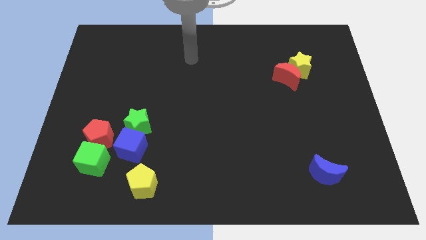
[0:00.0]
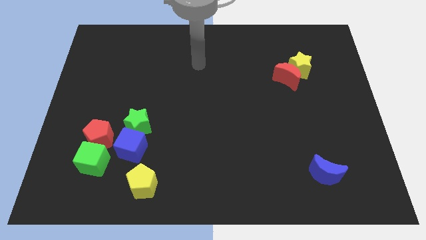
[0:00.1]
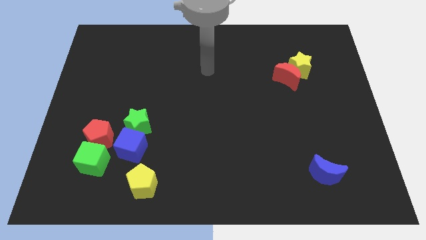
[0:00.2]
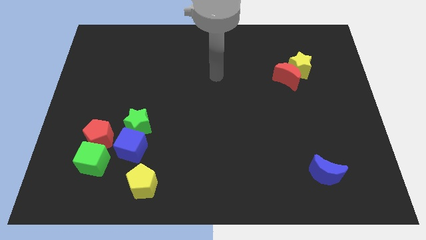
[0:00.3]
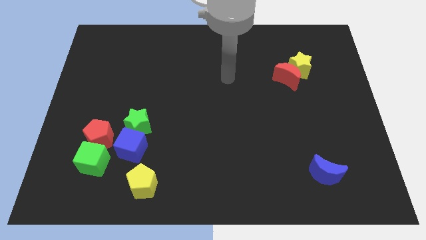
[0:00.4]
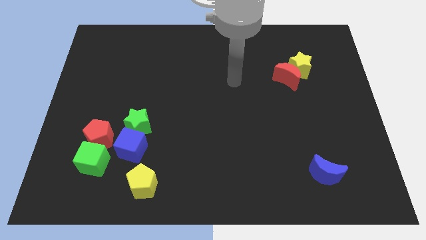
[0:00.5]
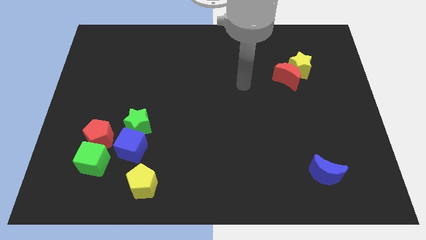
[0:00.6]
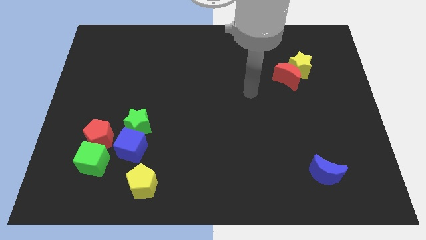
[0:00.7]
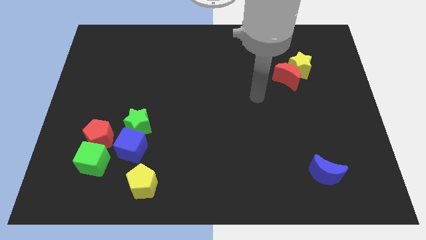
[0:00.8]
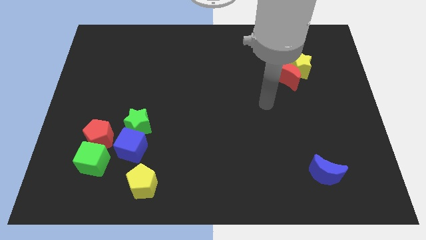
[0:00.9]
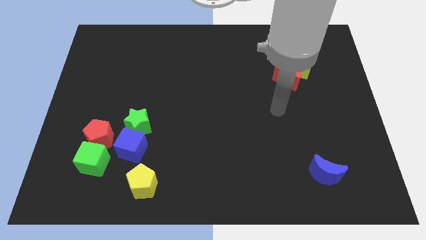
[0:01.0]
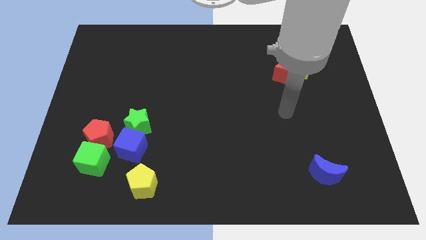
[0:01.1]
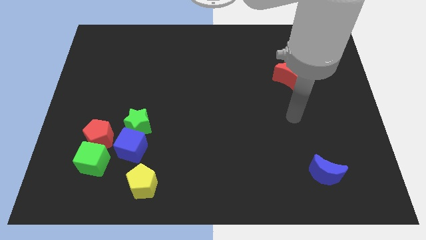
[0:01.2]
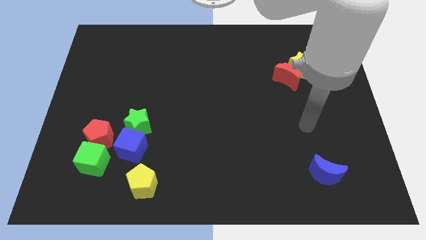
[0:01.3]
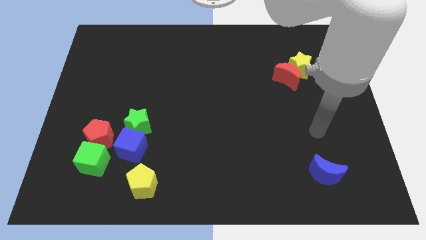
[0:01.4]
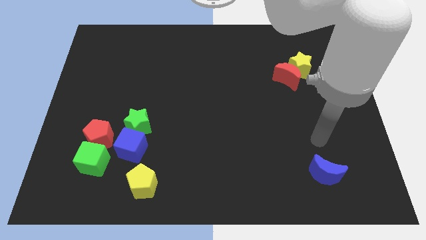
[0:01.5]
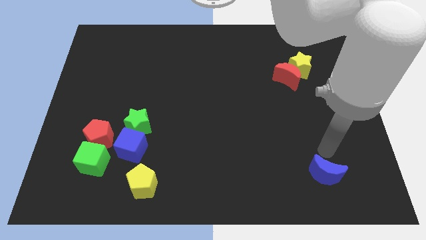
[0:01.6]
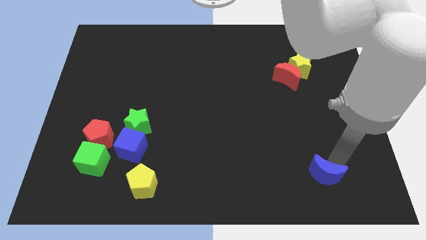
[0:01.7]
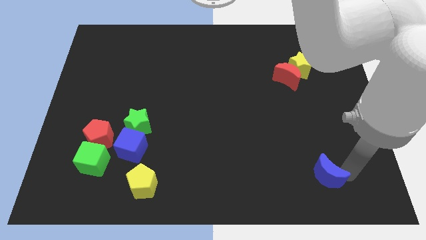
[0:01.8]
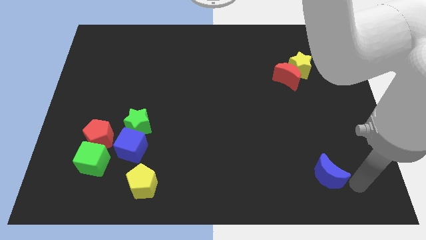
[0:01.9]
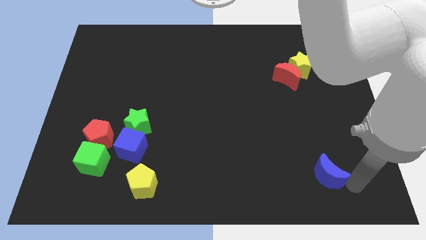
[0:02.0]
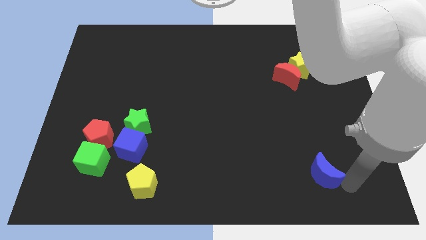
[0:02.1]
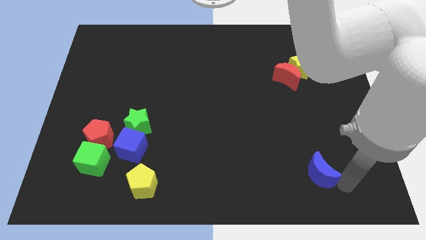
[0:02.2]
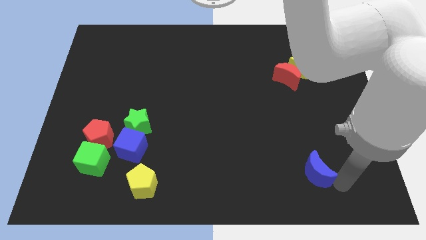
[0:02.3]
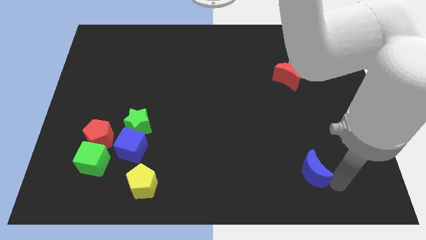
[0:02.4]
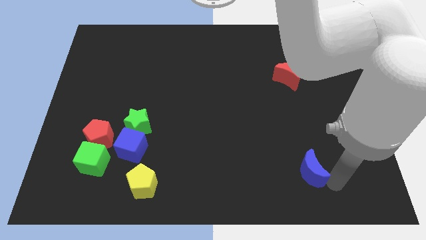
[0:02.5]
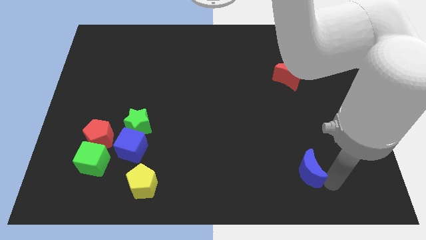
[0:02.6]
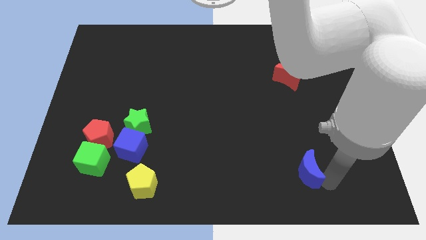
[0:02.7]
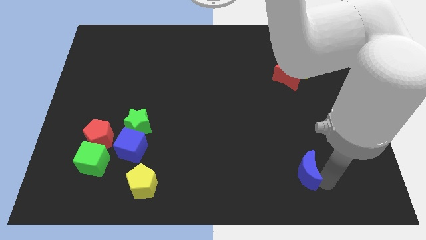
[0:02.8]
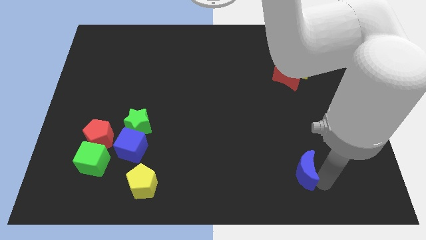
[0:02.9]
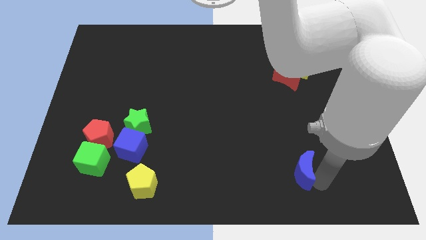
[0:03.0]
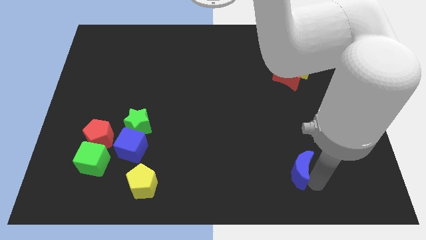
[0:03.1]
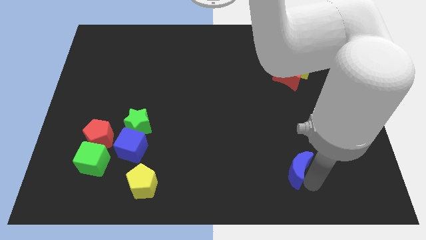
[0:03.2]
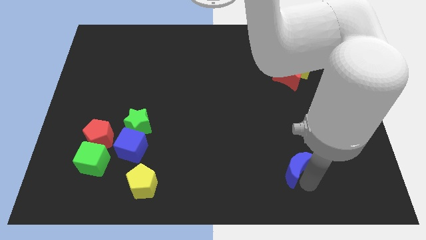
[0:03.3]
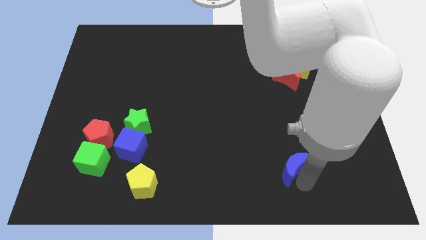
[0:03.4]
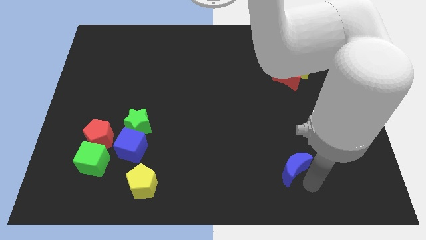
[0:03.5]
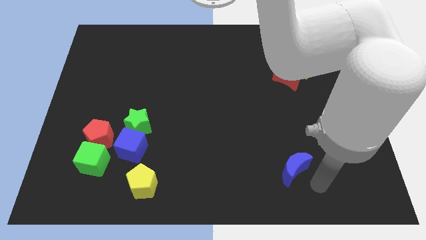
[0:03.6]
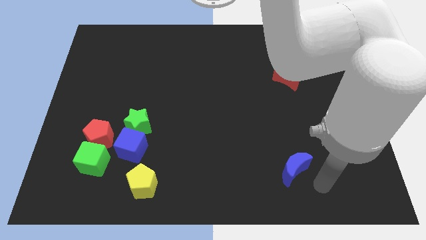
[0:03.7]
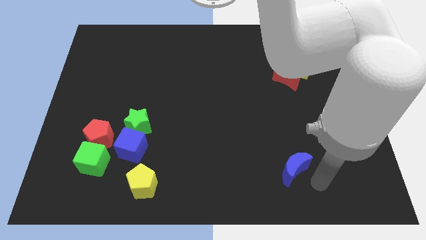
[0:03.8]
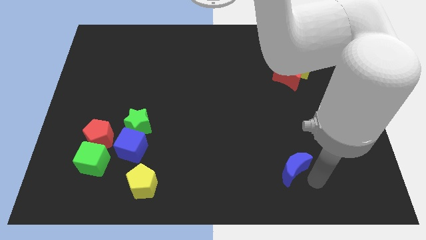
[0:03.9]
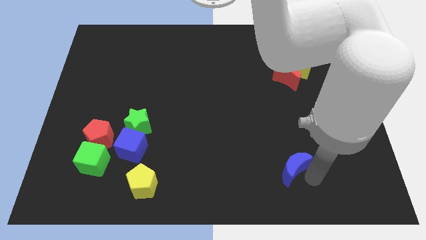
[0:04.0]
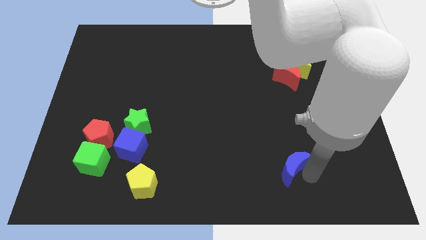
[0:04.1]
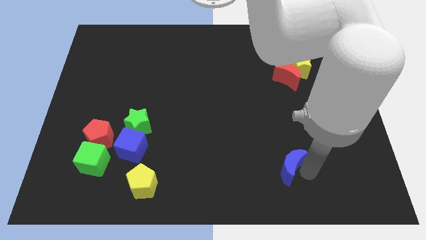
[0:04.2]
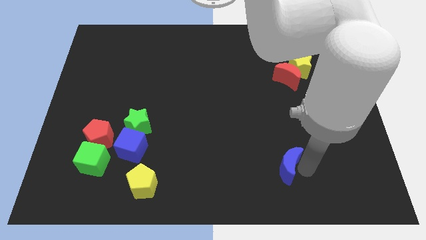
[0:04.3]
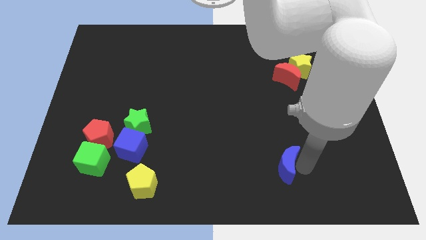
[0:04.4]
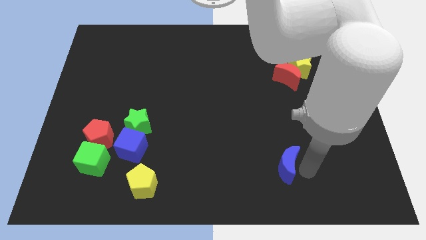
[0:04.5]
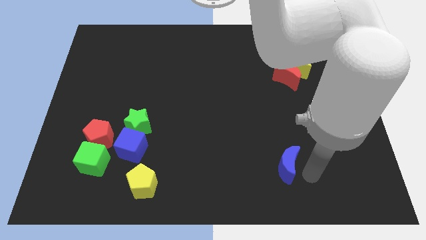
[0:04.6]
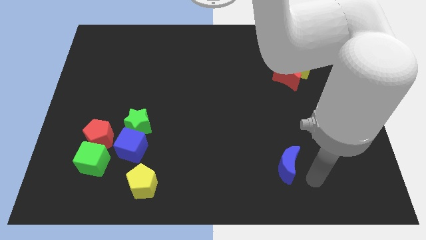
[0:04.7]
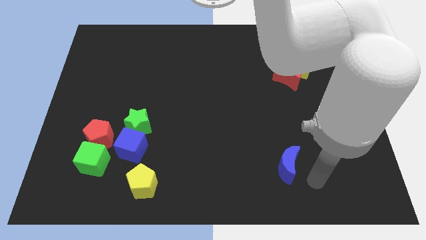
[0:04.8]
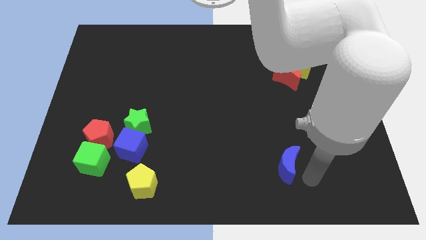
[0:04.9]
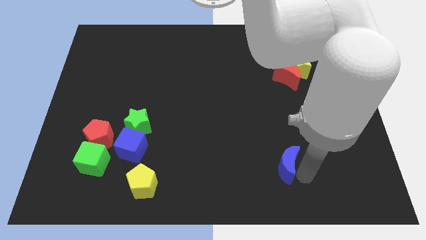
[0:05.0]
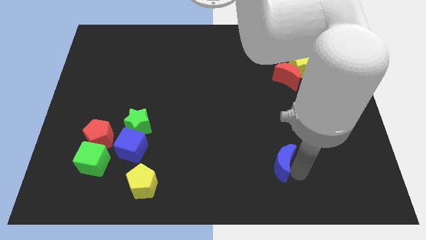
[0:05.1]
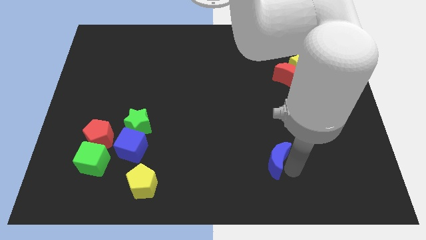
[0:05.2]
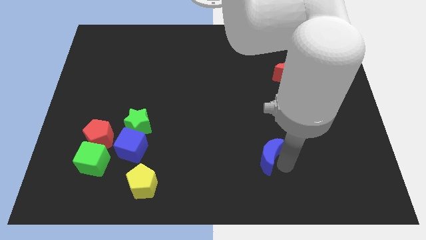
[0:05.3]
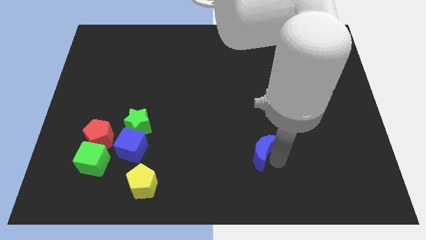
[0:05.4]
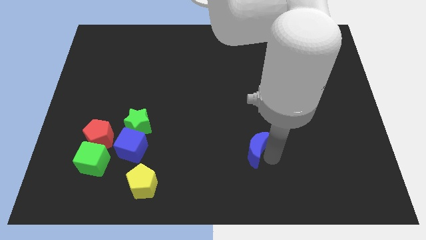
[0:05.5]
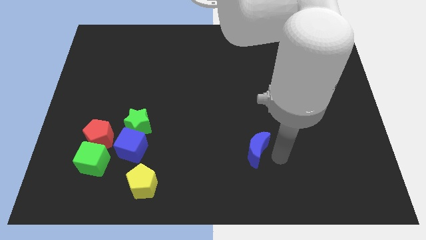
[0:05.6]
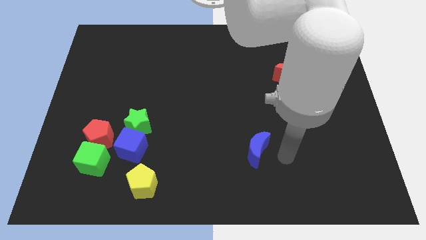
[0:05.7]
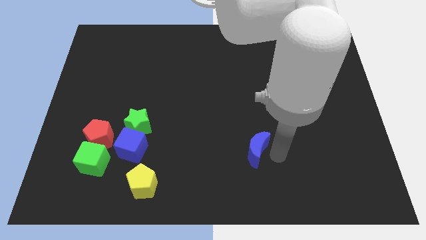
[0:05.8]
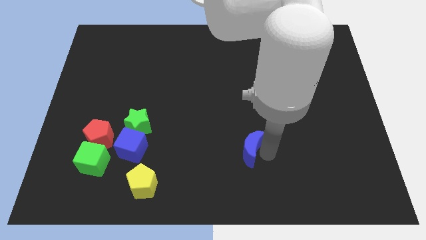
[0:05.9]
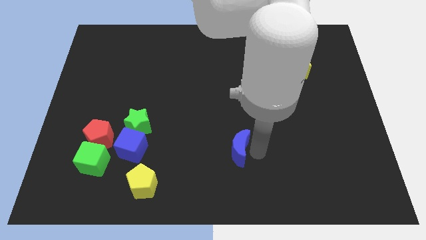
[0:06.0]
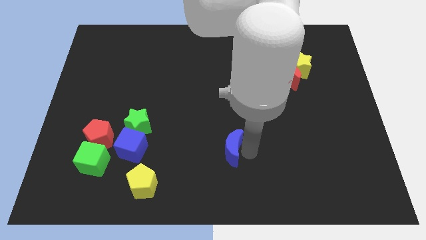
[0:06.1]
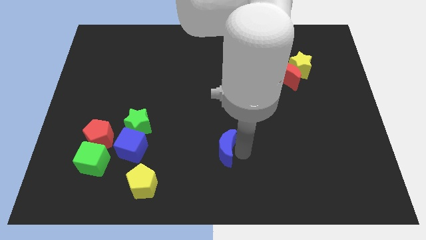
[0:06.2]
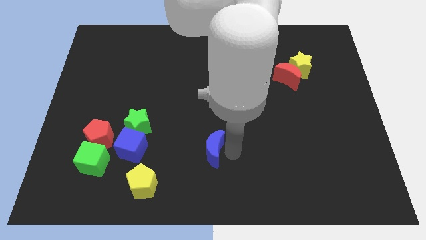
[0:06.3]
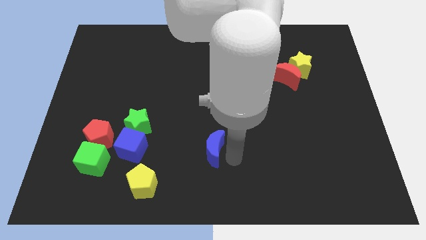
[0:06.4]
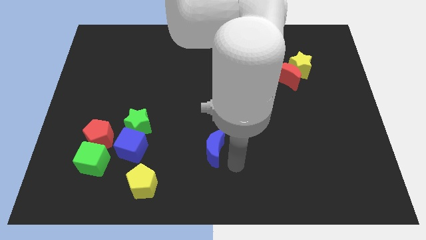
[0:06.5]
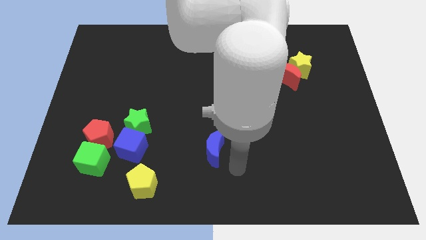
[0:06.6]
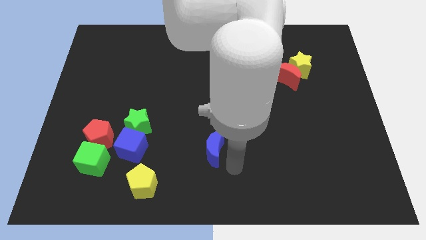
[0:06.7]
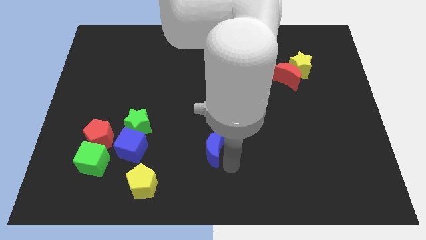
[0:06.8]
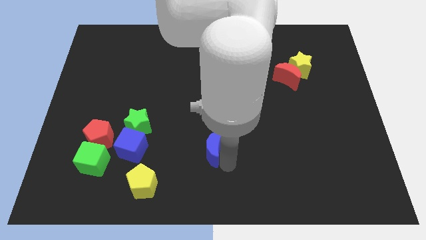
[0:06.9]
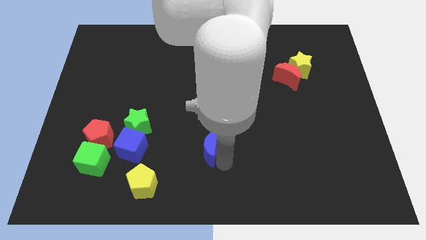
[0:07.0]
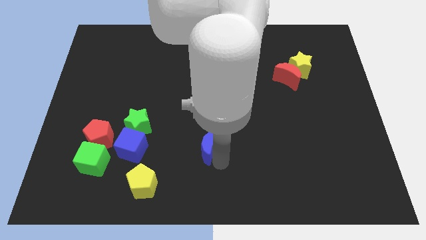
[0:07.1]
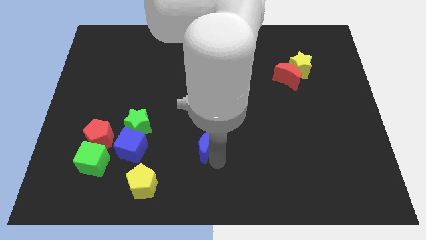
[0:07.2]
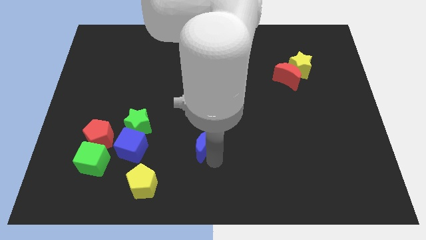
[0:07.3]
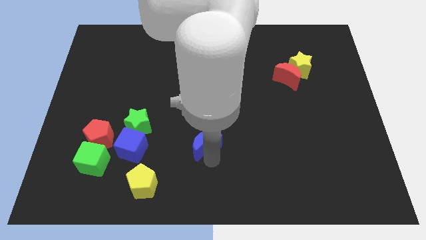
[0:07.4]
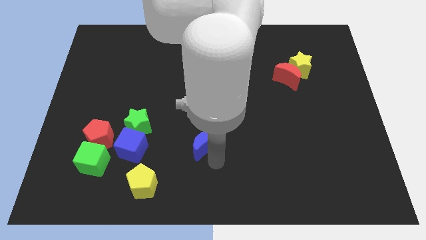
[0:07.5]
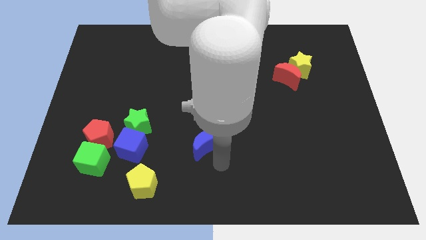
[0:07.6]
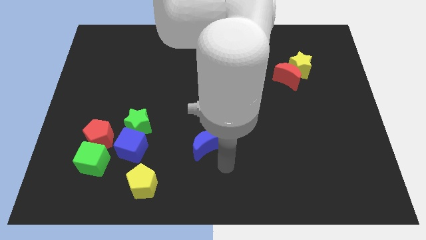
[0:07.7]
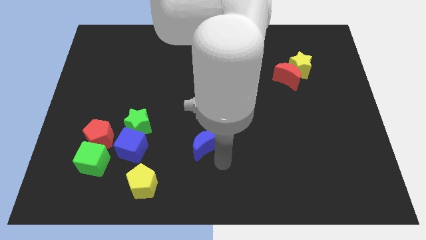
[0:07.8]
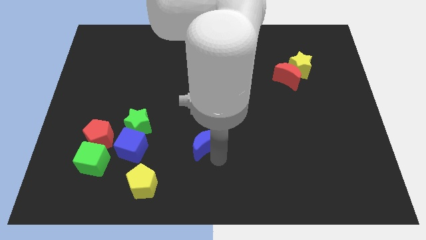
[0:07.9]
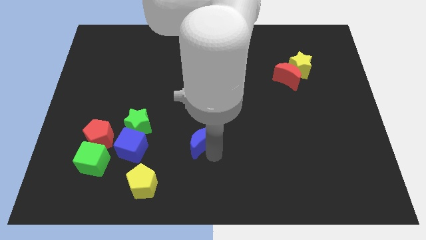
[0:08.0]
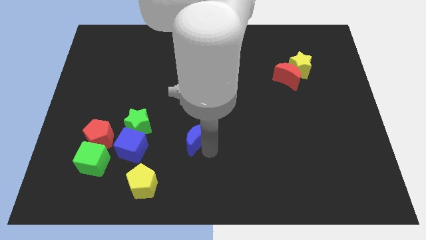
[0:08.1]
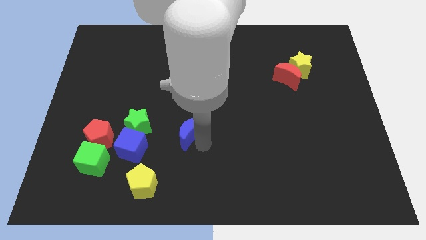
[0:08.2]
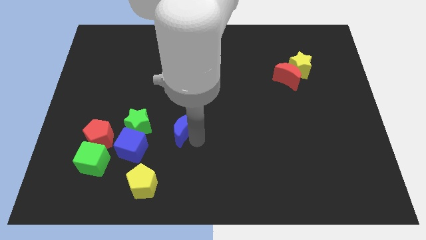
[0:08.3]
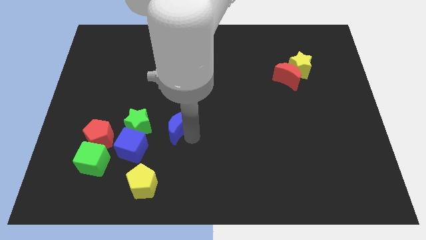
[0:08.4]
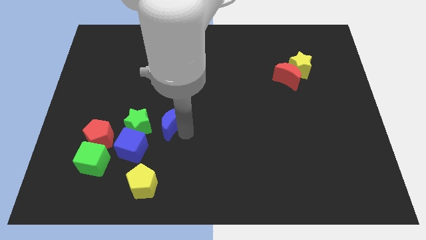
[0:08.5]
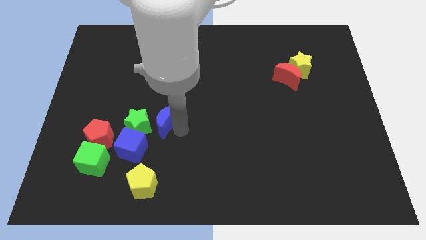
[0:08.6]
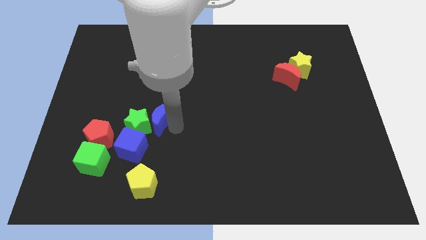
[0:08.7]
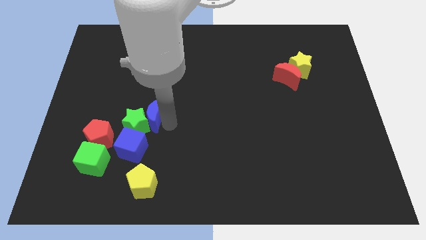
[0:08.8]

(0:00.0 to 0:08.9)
slide the blue moon to the top side of the blue cube
